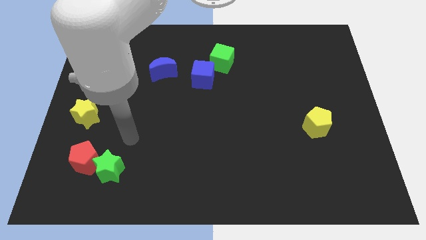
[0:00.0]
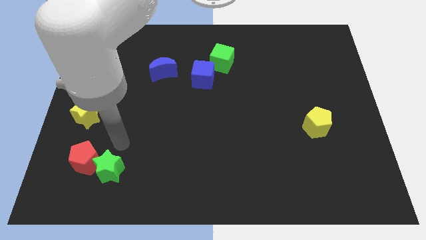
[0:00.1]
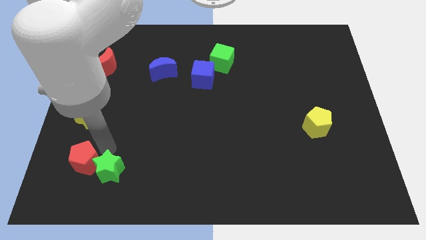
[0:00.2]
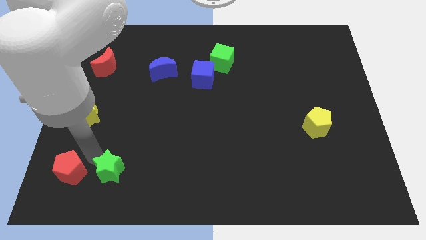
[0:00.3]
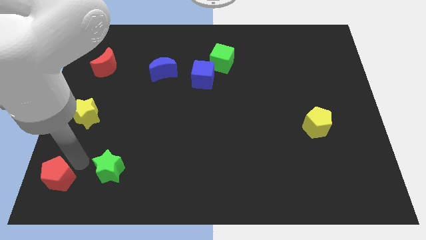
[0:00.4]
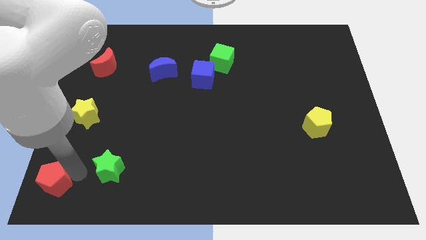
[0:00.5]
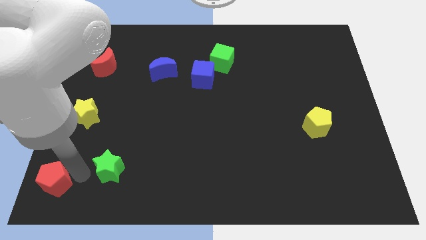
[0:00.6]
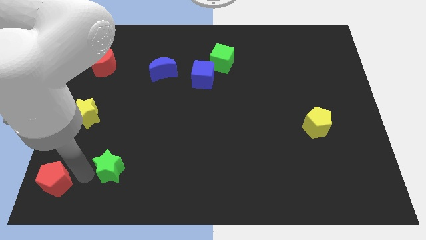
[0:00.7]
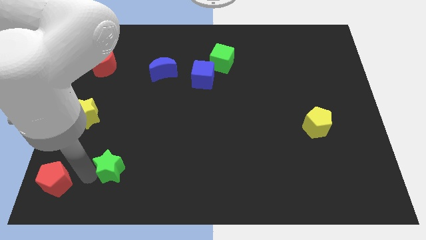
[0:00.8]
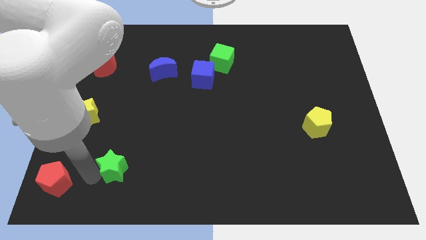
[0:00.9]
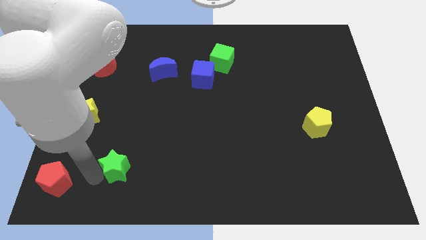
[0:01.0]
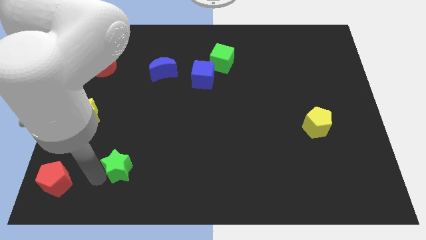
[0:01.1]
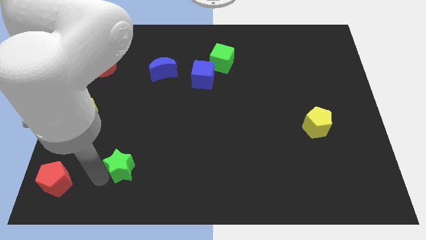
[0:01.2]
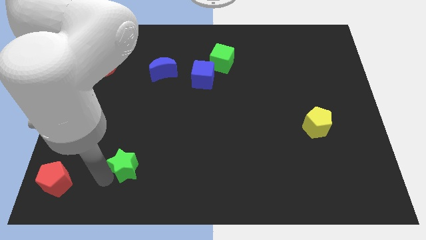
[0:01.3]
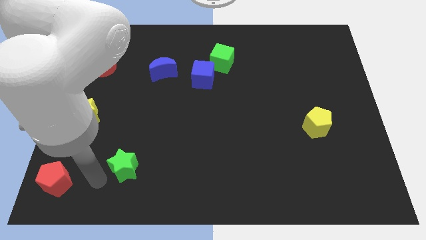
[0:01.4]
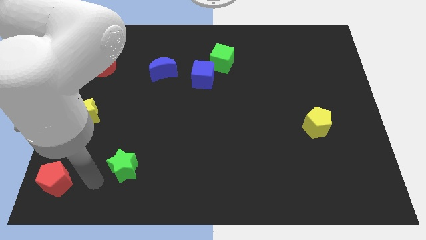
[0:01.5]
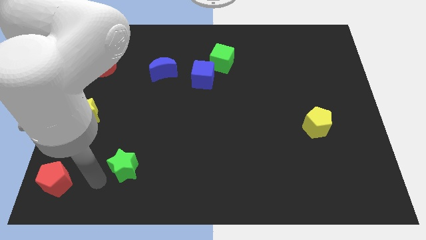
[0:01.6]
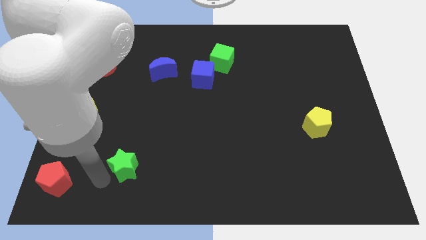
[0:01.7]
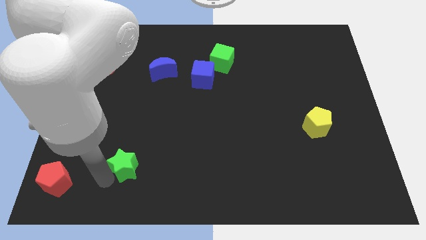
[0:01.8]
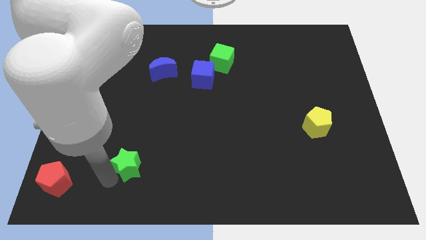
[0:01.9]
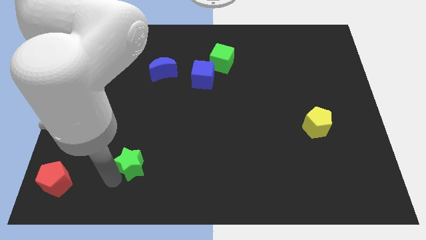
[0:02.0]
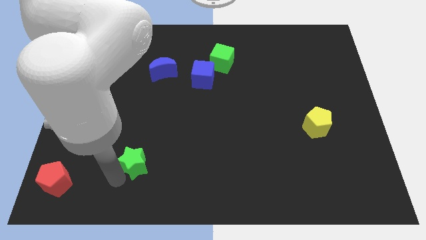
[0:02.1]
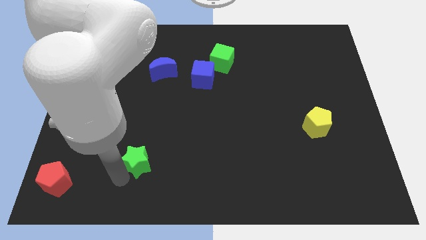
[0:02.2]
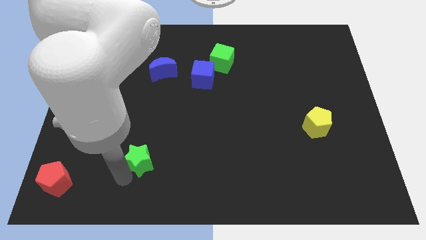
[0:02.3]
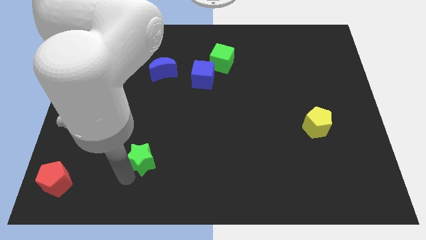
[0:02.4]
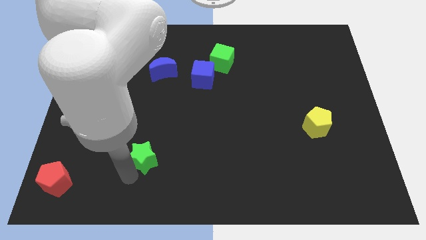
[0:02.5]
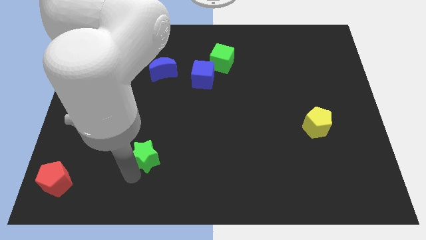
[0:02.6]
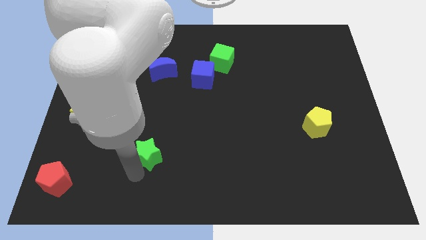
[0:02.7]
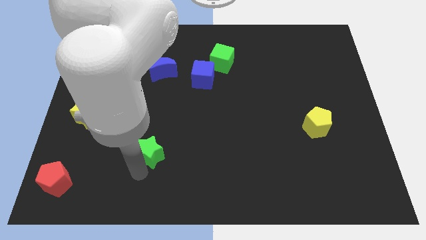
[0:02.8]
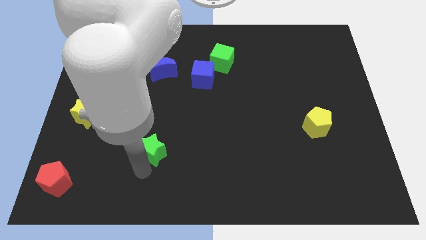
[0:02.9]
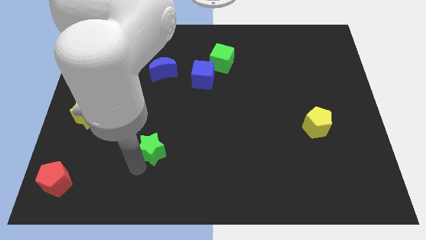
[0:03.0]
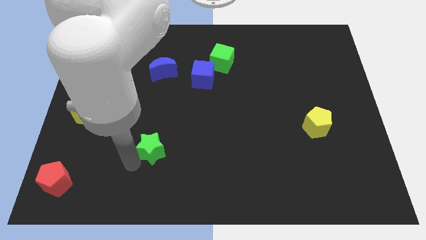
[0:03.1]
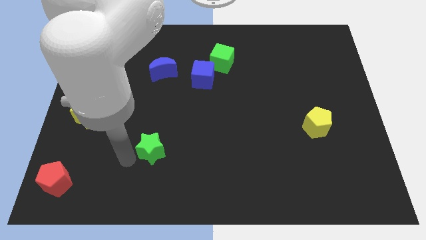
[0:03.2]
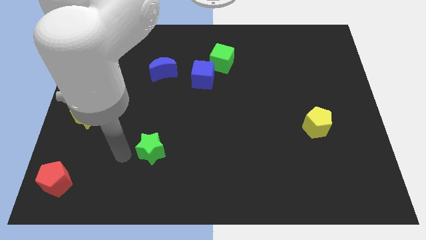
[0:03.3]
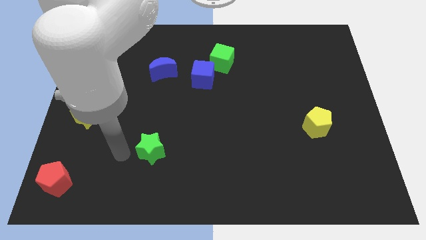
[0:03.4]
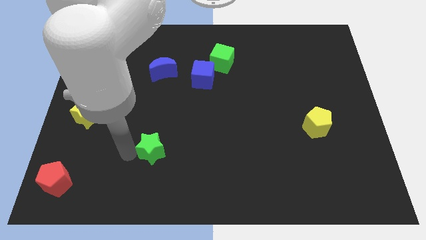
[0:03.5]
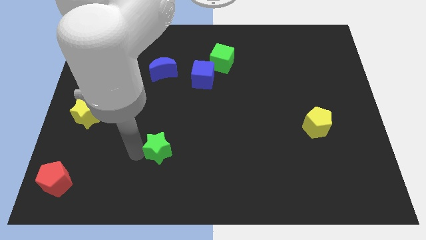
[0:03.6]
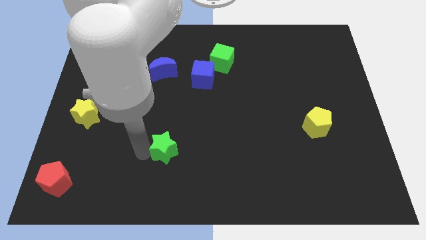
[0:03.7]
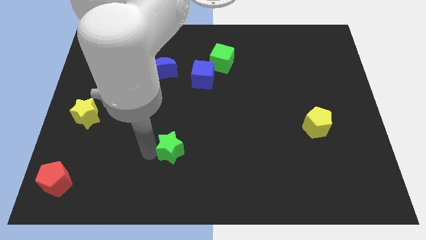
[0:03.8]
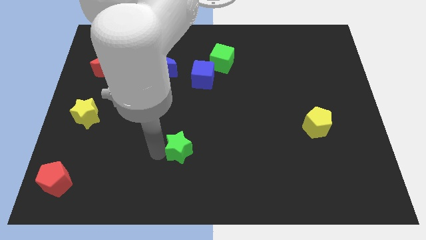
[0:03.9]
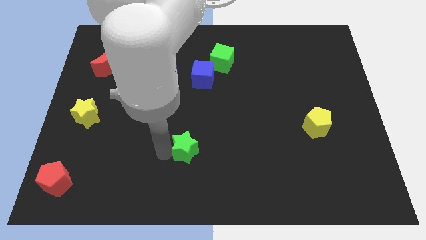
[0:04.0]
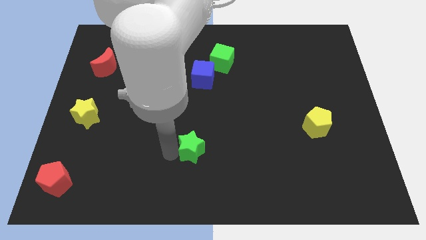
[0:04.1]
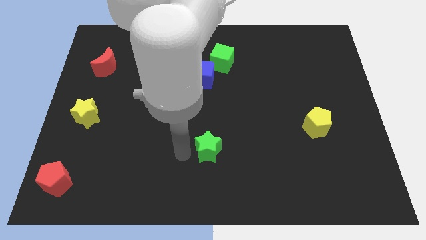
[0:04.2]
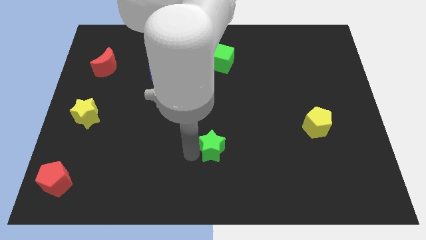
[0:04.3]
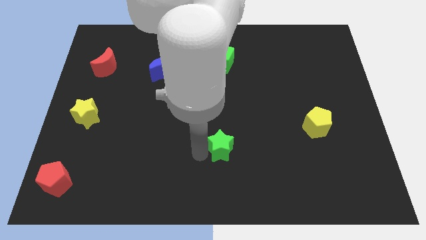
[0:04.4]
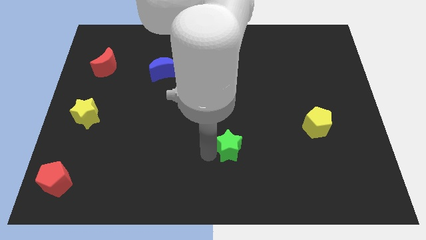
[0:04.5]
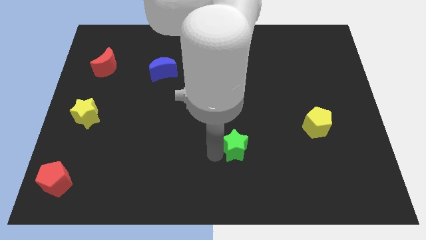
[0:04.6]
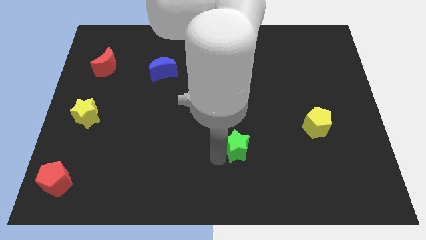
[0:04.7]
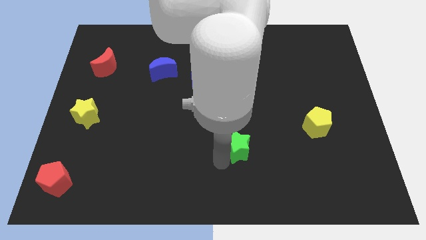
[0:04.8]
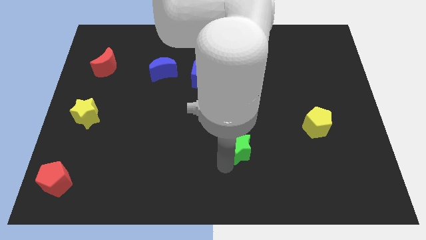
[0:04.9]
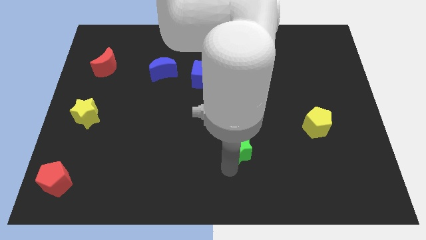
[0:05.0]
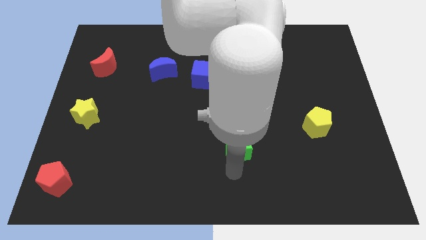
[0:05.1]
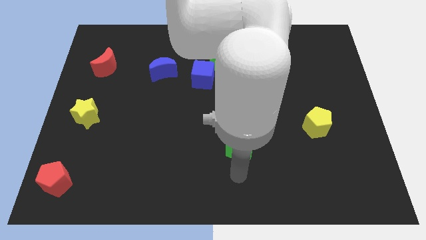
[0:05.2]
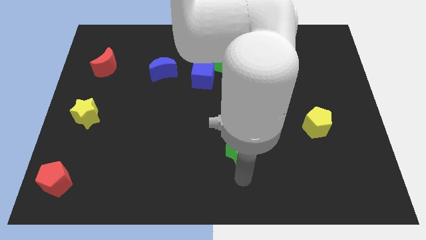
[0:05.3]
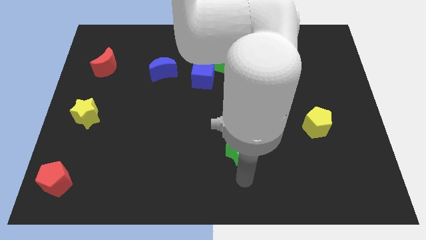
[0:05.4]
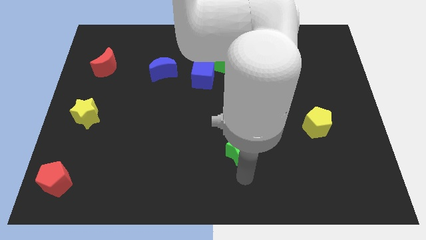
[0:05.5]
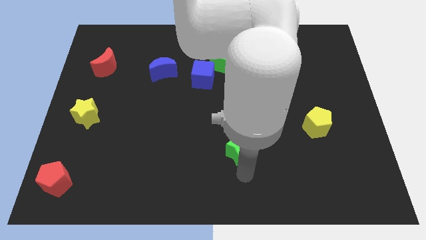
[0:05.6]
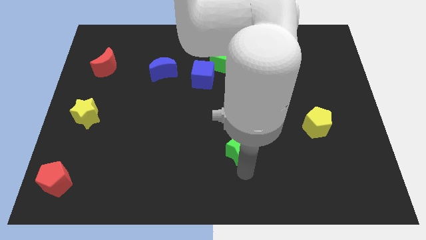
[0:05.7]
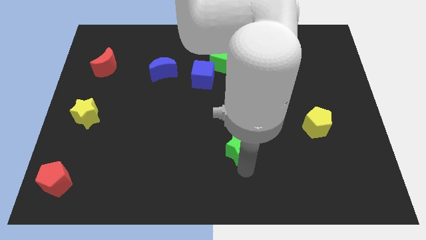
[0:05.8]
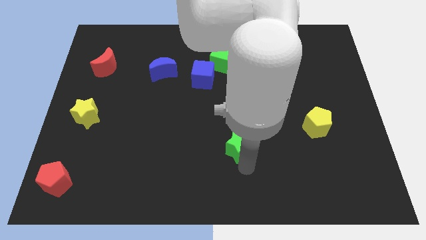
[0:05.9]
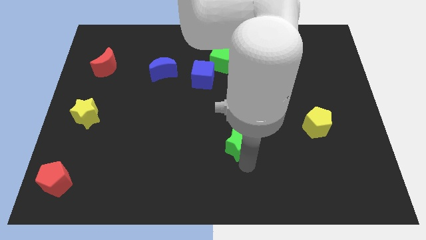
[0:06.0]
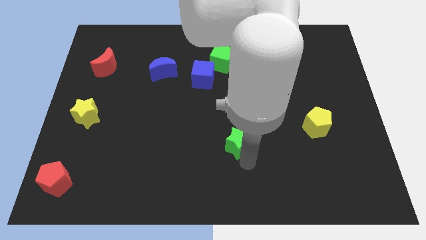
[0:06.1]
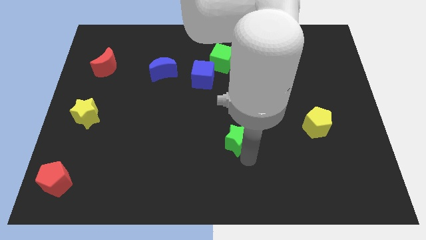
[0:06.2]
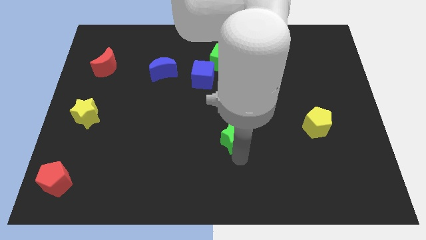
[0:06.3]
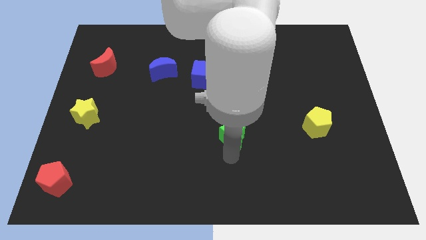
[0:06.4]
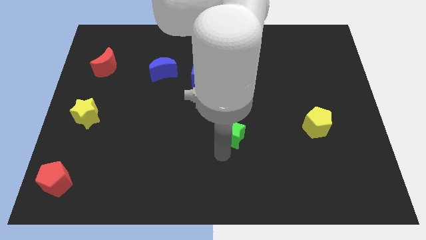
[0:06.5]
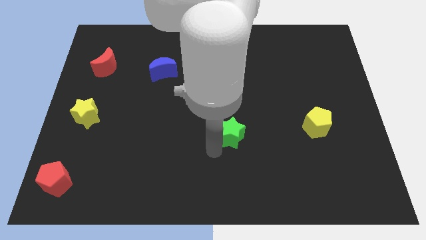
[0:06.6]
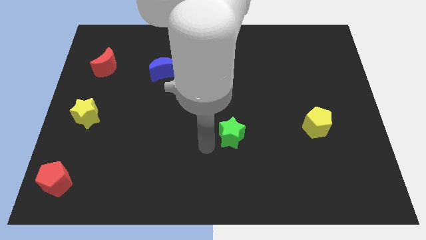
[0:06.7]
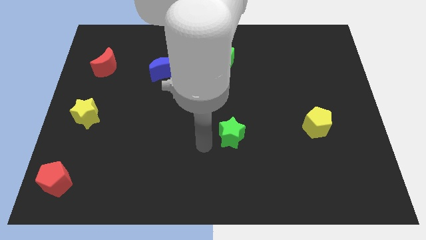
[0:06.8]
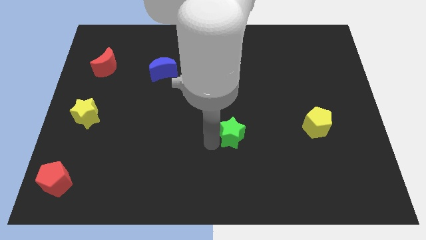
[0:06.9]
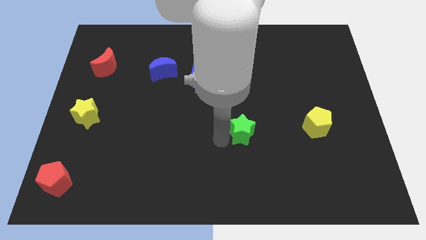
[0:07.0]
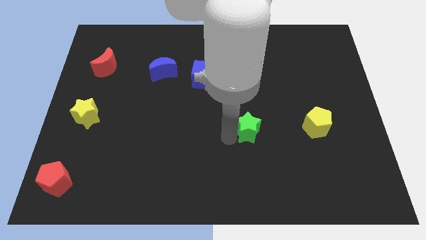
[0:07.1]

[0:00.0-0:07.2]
slide the green star to the left of the yellow pentagon
